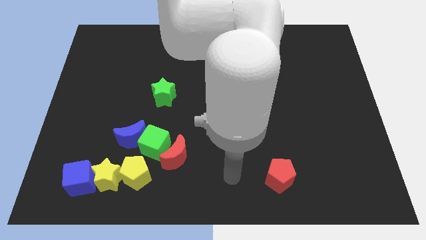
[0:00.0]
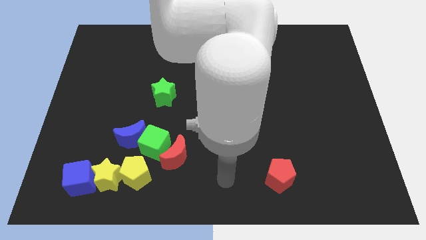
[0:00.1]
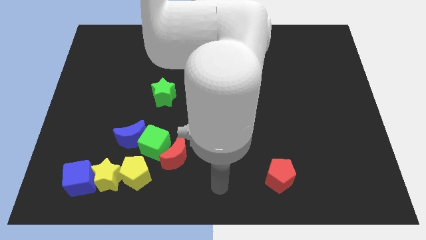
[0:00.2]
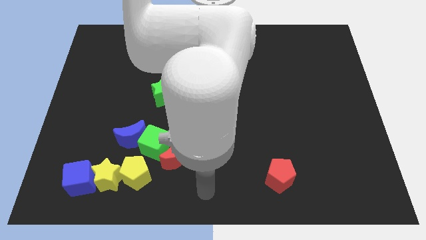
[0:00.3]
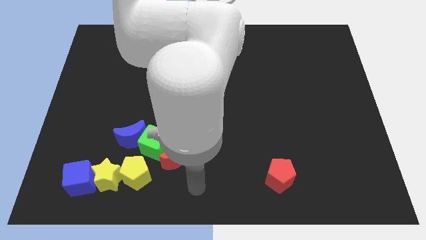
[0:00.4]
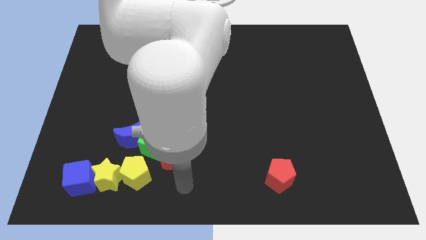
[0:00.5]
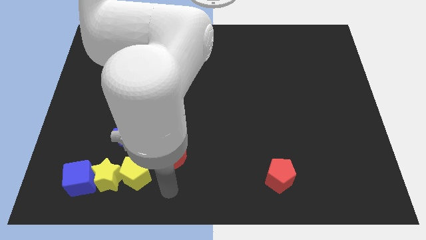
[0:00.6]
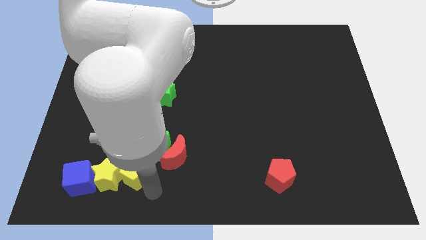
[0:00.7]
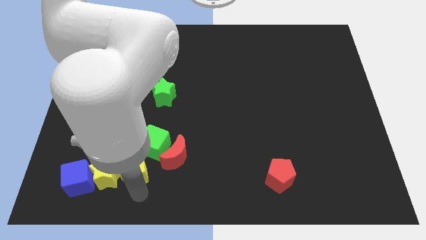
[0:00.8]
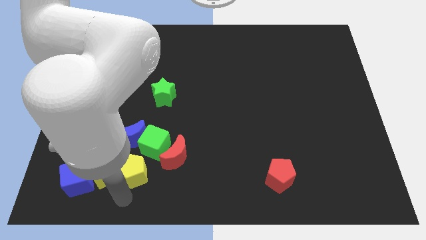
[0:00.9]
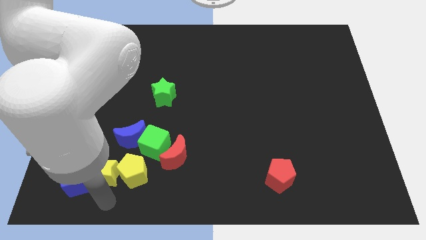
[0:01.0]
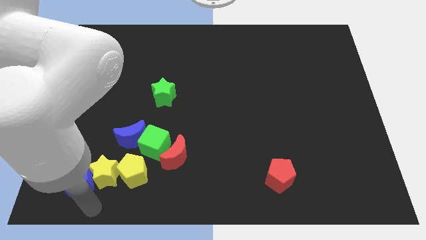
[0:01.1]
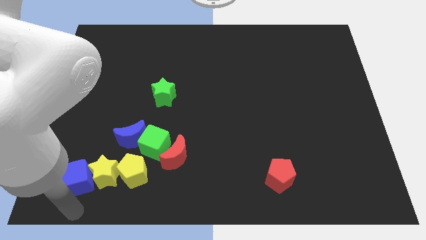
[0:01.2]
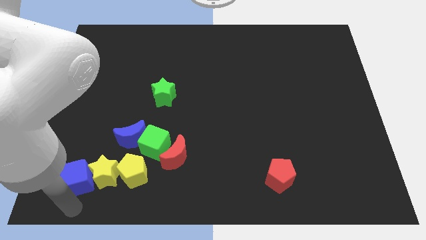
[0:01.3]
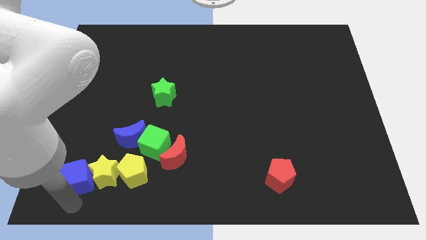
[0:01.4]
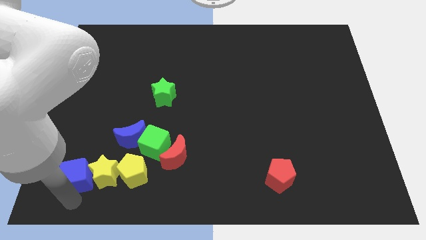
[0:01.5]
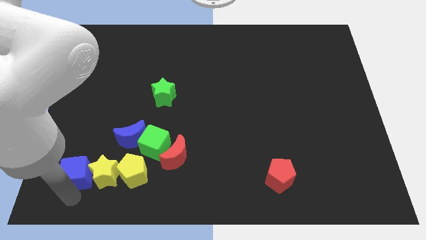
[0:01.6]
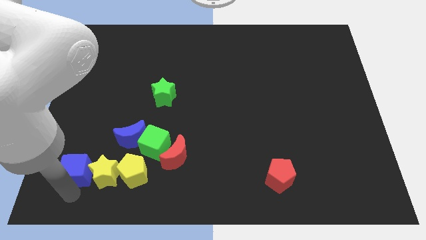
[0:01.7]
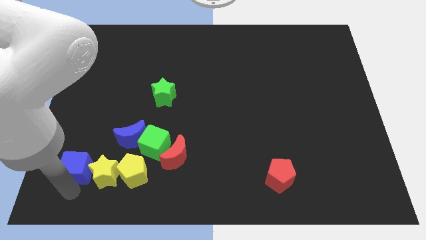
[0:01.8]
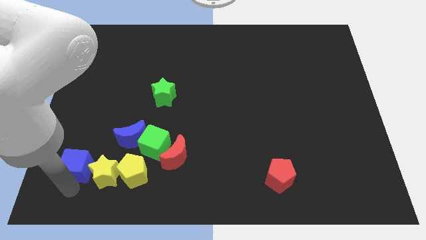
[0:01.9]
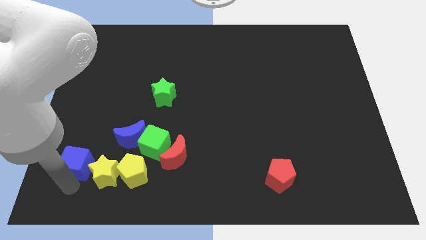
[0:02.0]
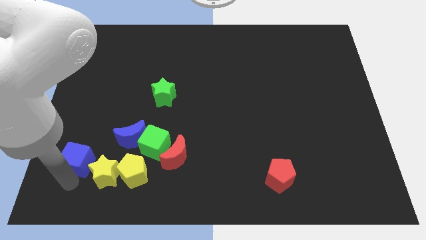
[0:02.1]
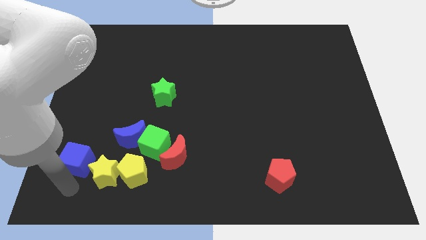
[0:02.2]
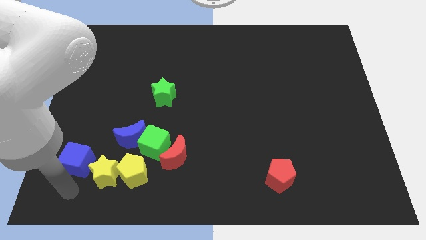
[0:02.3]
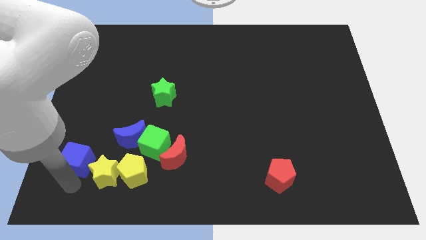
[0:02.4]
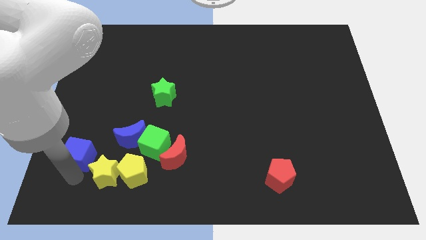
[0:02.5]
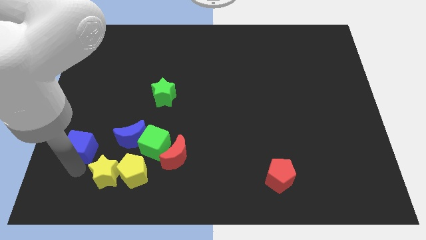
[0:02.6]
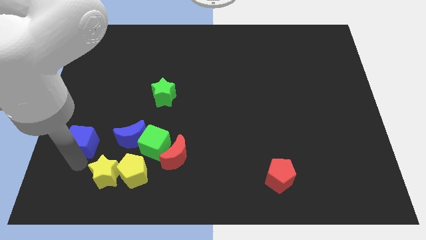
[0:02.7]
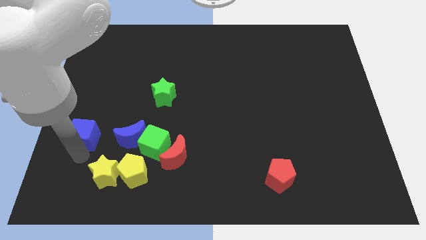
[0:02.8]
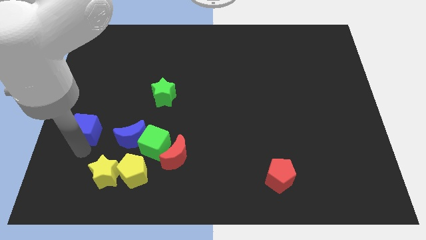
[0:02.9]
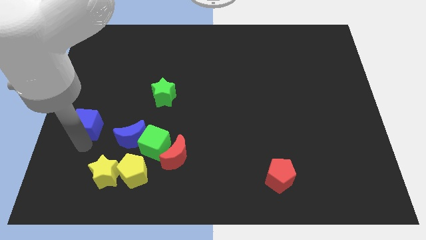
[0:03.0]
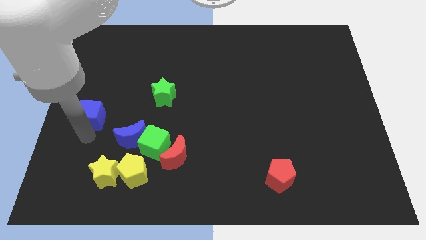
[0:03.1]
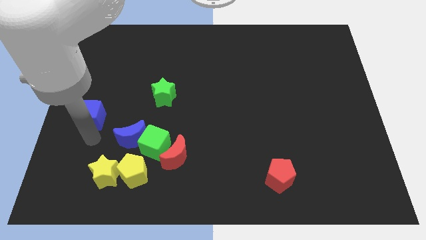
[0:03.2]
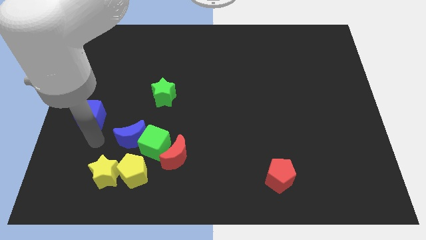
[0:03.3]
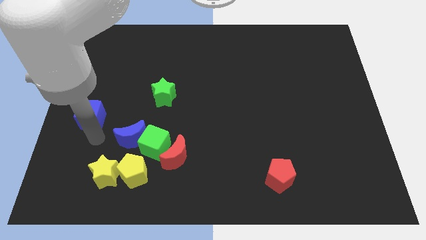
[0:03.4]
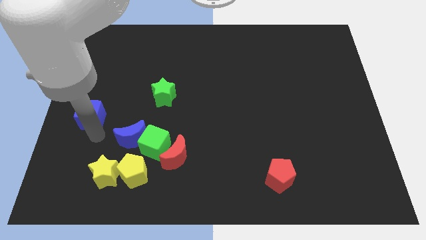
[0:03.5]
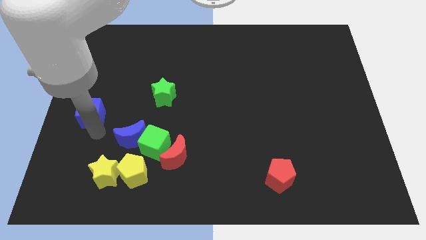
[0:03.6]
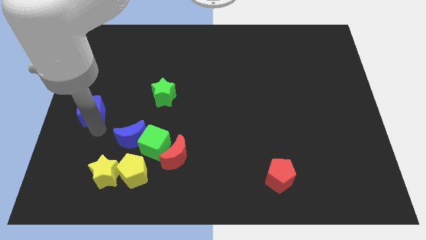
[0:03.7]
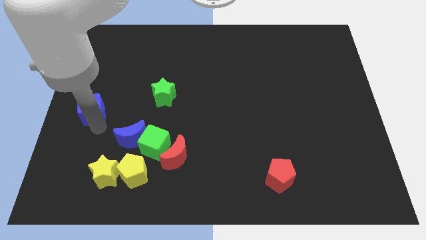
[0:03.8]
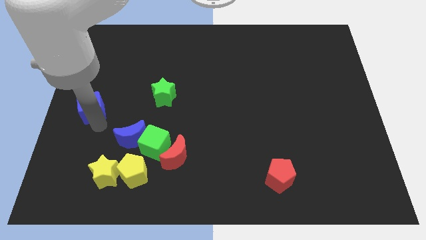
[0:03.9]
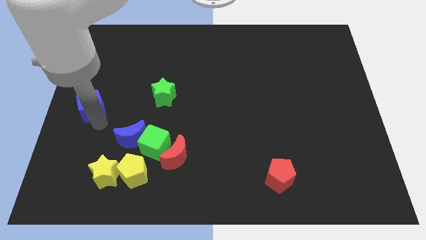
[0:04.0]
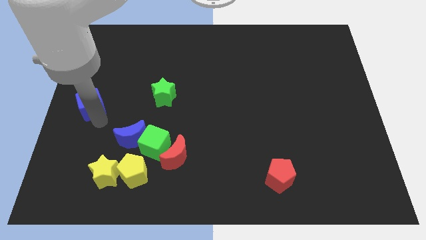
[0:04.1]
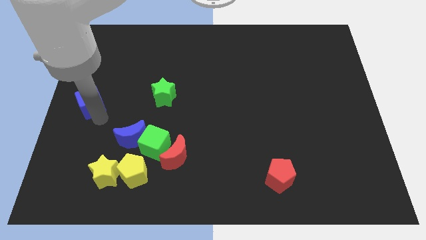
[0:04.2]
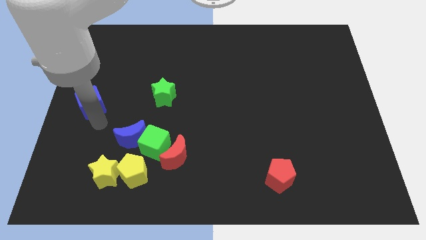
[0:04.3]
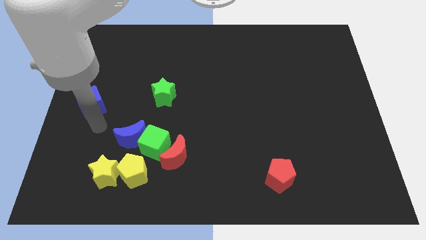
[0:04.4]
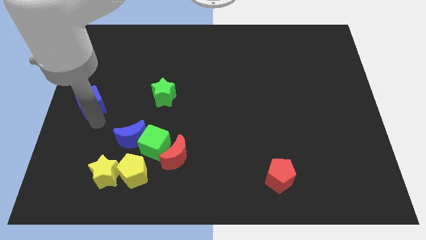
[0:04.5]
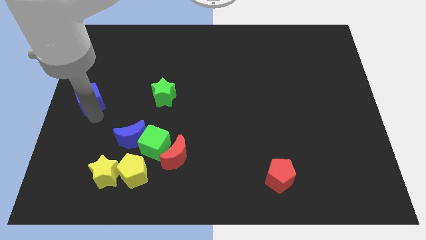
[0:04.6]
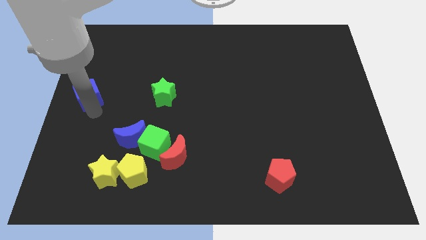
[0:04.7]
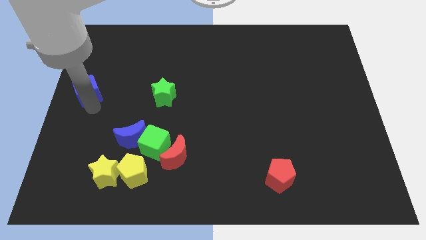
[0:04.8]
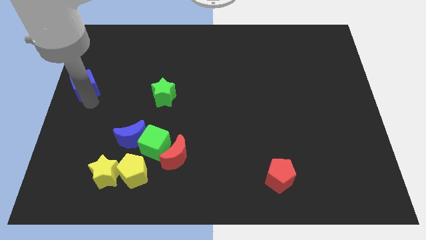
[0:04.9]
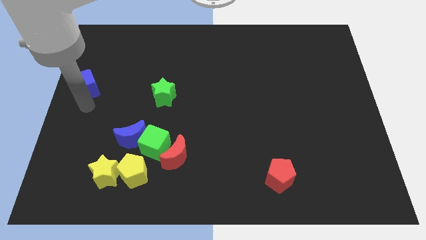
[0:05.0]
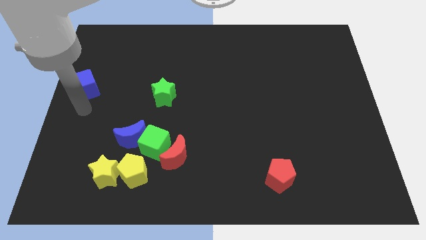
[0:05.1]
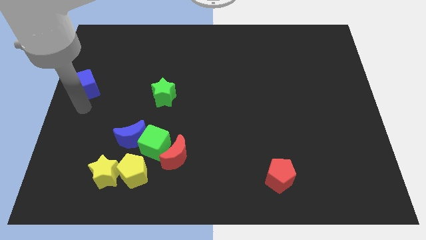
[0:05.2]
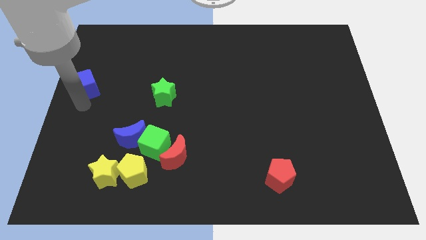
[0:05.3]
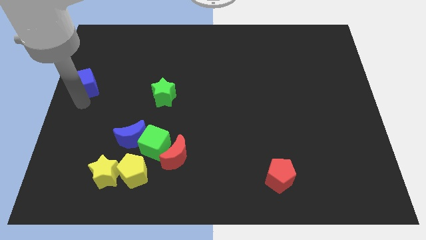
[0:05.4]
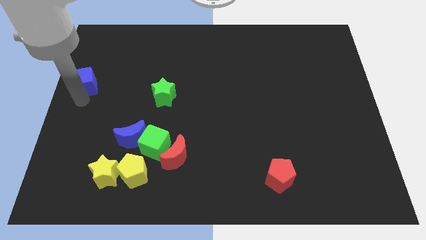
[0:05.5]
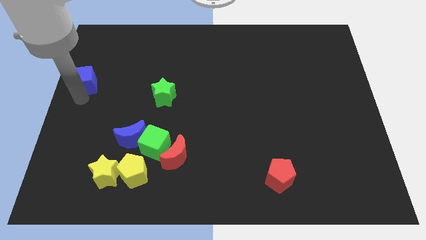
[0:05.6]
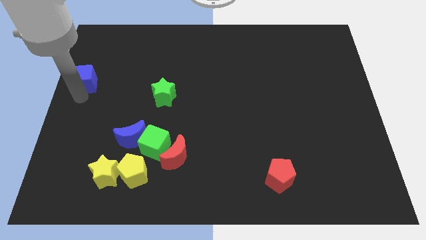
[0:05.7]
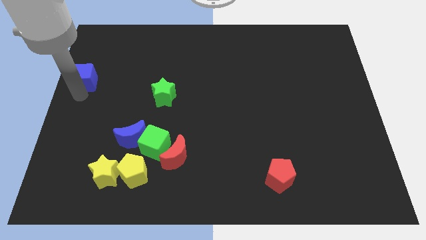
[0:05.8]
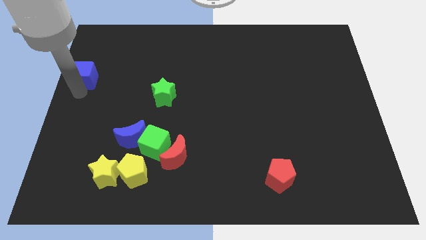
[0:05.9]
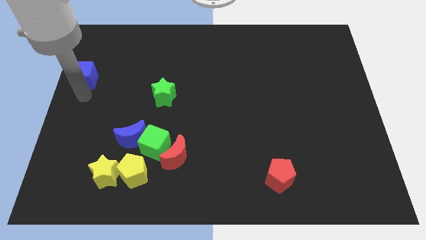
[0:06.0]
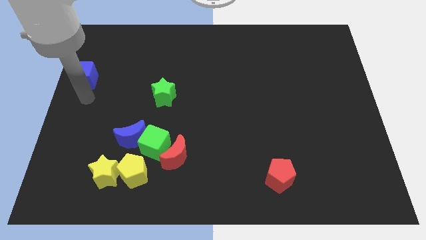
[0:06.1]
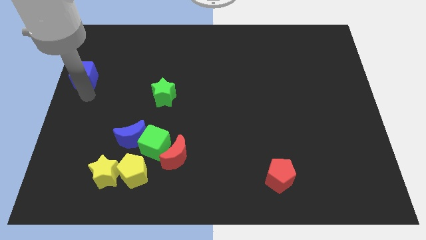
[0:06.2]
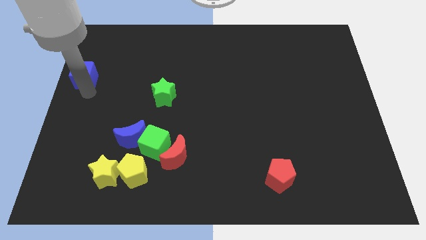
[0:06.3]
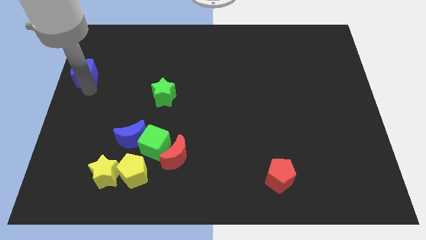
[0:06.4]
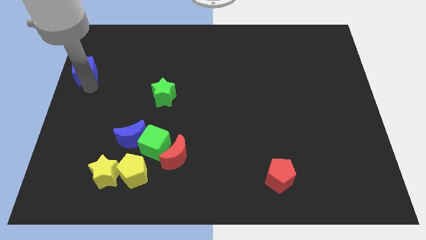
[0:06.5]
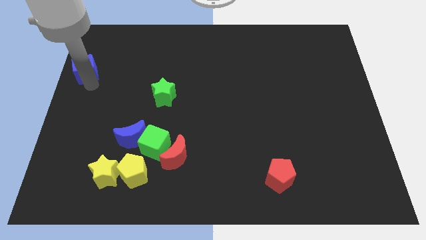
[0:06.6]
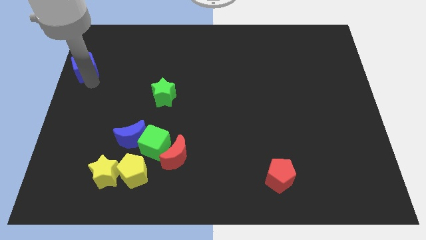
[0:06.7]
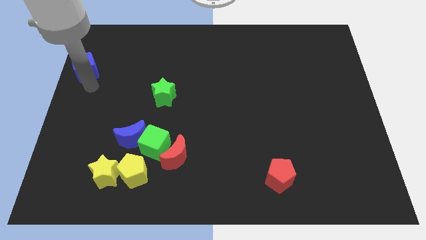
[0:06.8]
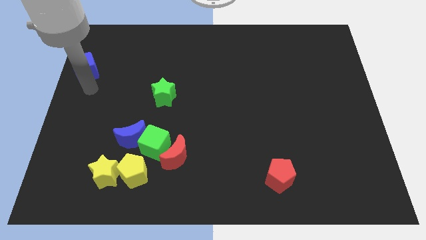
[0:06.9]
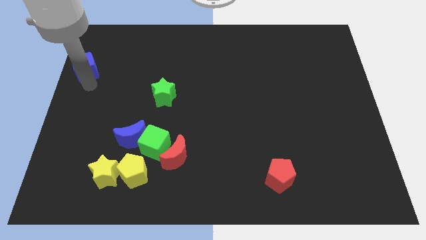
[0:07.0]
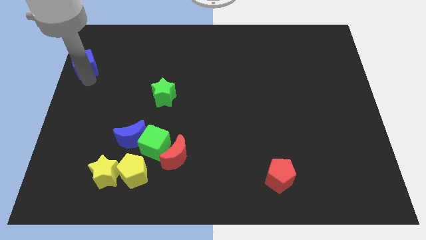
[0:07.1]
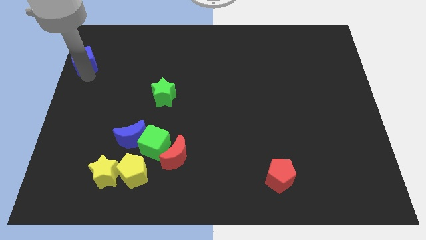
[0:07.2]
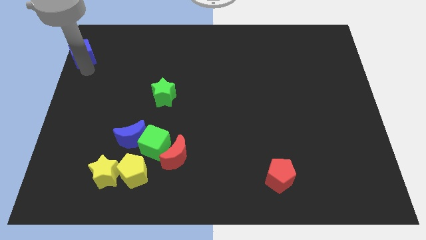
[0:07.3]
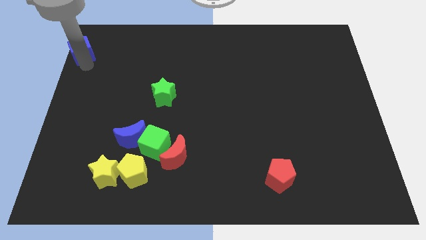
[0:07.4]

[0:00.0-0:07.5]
move the blue cube to the top left of the board

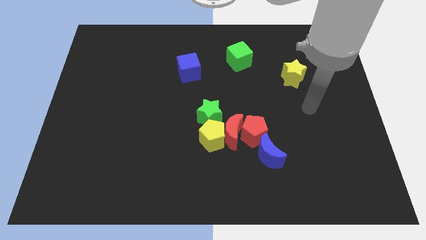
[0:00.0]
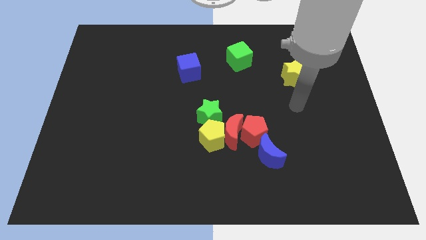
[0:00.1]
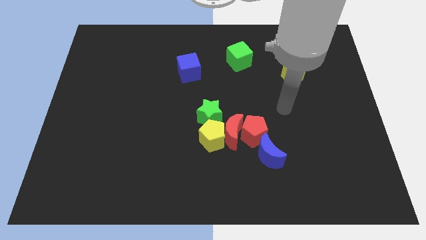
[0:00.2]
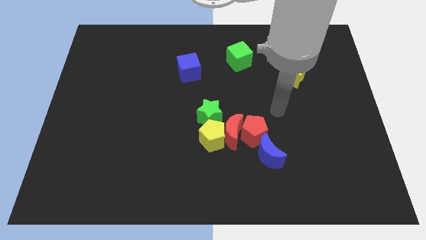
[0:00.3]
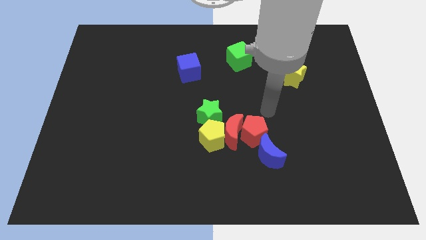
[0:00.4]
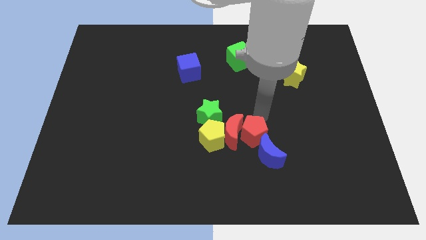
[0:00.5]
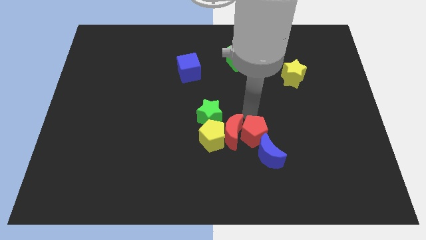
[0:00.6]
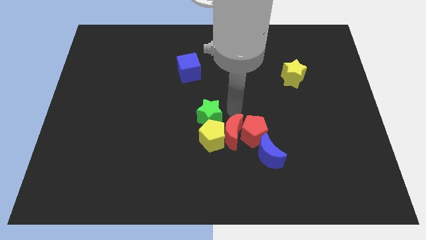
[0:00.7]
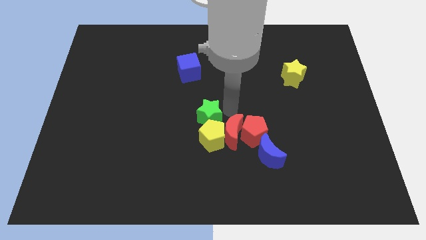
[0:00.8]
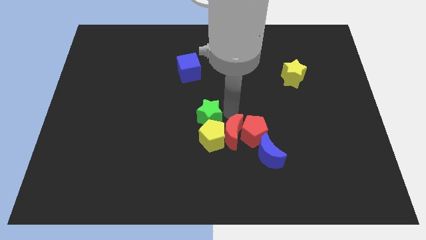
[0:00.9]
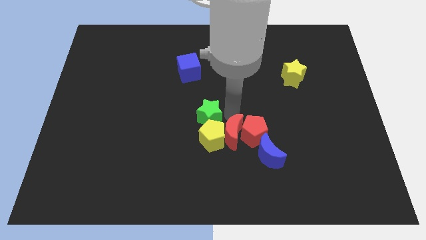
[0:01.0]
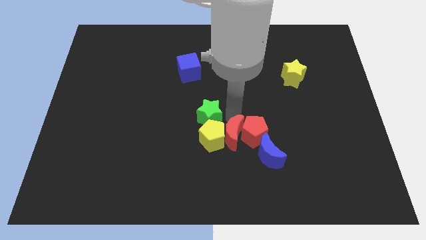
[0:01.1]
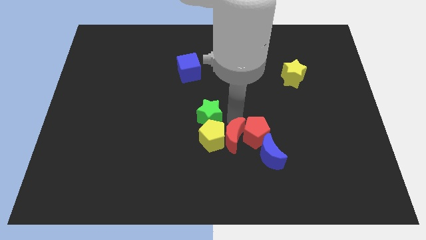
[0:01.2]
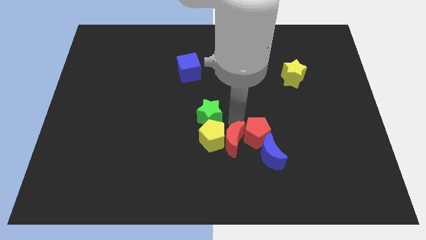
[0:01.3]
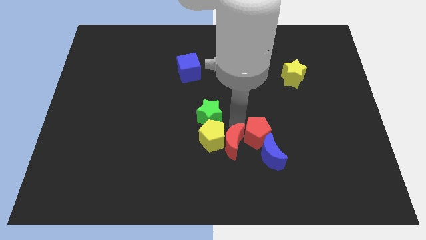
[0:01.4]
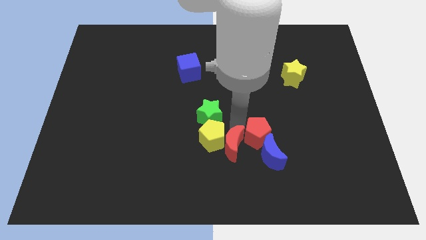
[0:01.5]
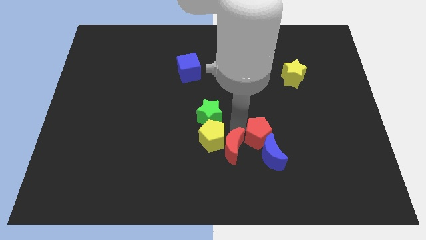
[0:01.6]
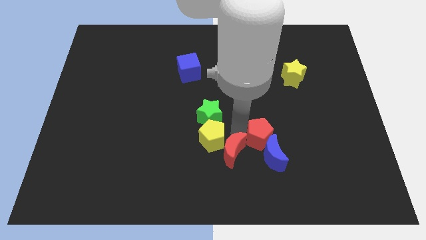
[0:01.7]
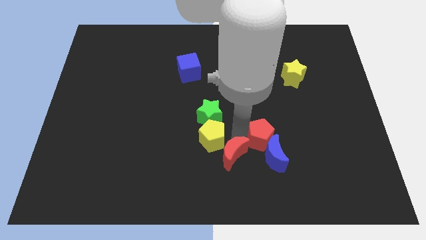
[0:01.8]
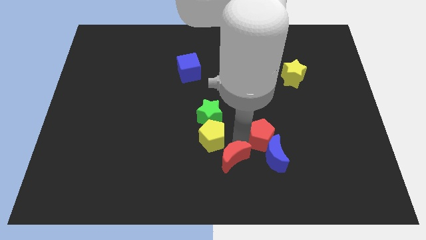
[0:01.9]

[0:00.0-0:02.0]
slide the red moon to the bottom side
